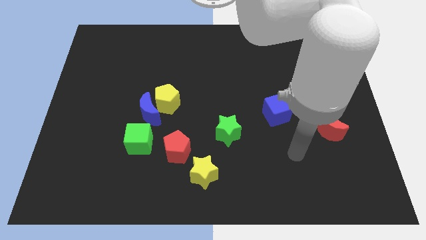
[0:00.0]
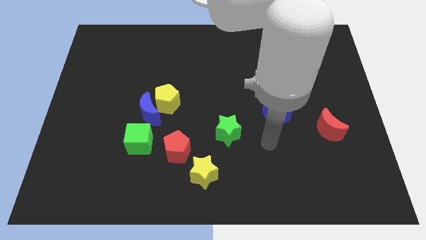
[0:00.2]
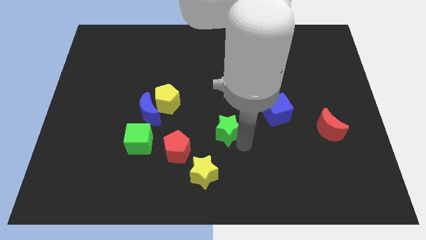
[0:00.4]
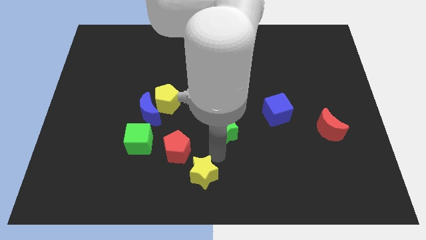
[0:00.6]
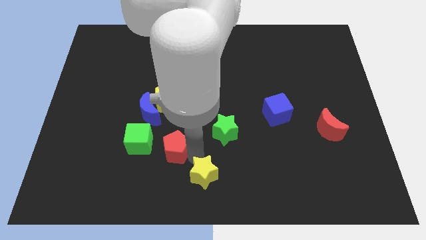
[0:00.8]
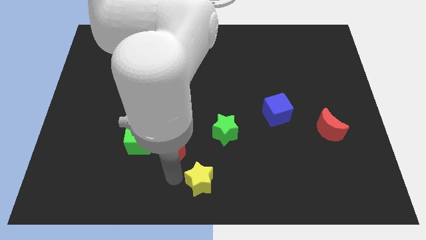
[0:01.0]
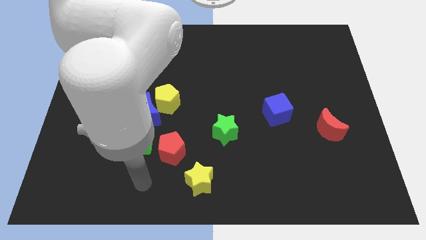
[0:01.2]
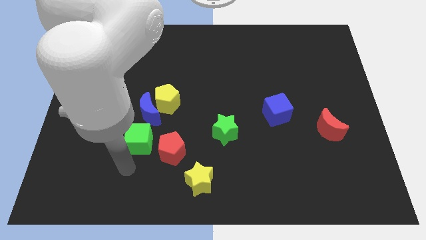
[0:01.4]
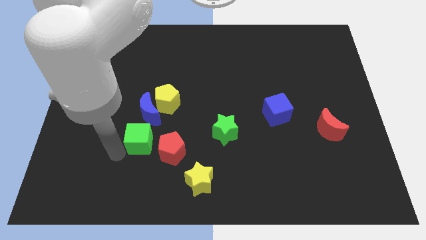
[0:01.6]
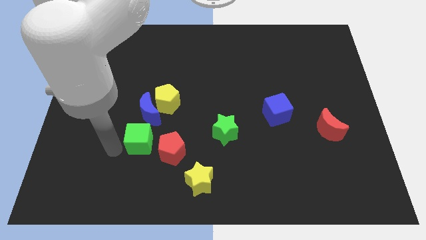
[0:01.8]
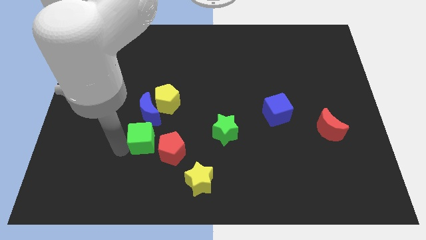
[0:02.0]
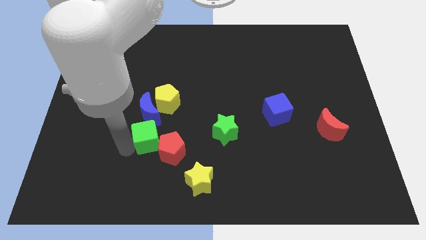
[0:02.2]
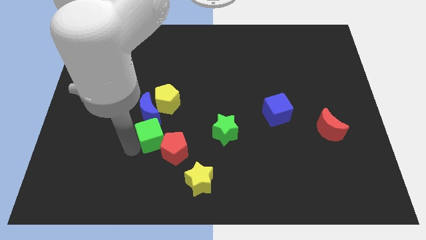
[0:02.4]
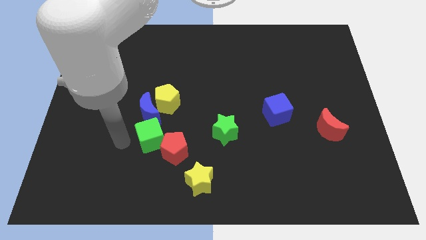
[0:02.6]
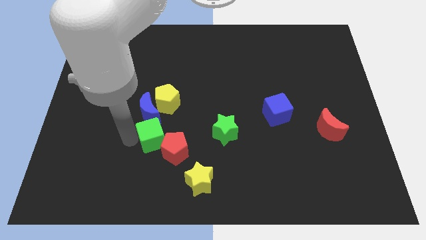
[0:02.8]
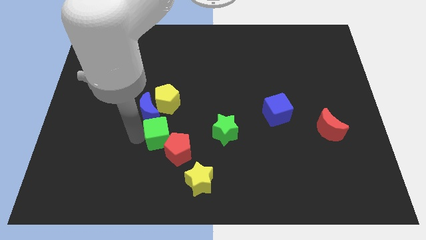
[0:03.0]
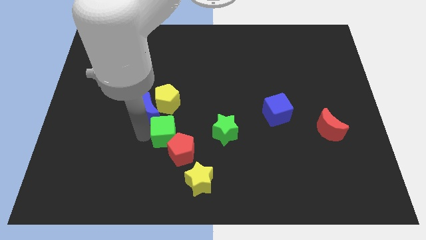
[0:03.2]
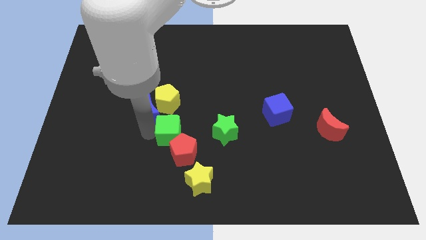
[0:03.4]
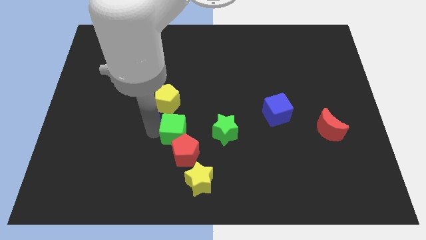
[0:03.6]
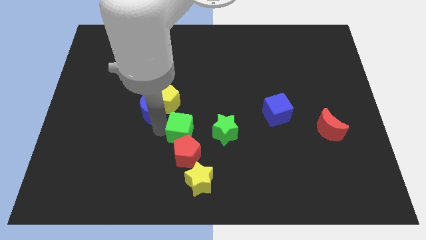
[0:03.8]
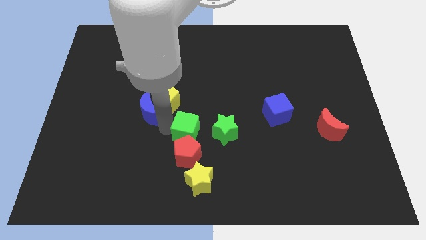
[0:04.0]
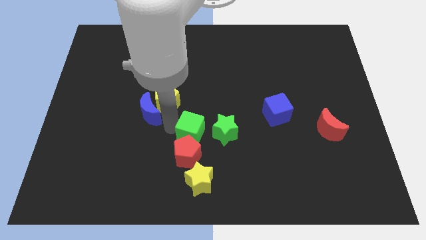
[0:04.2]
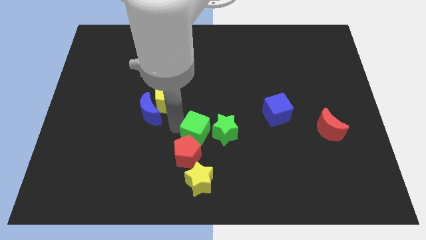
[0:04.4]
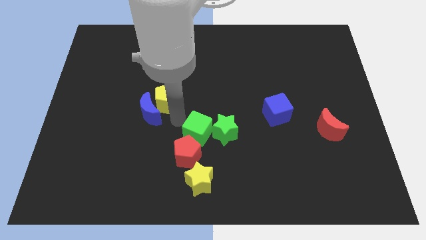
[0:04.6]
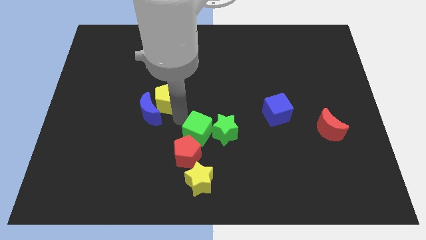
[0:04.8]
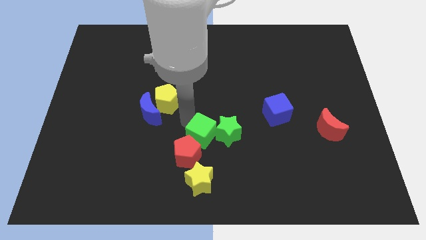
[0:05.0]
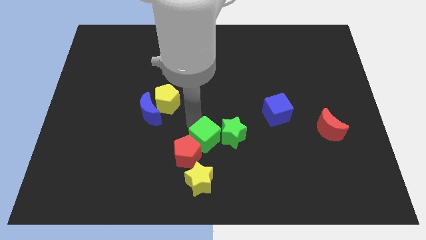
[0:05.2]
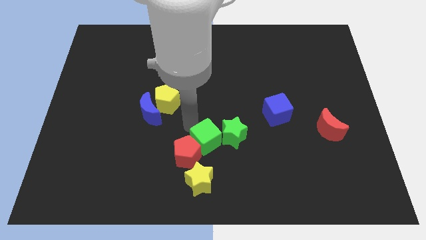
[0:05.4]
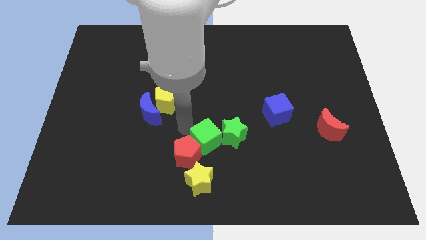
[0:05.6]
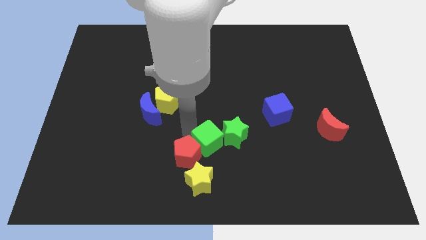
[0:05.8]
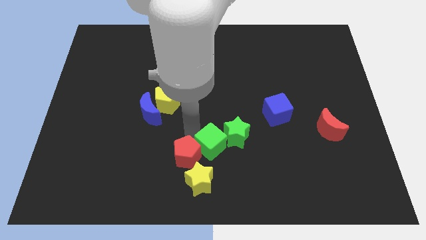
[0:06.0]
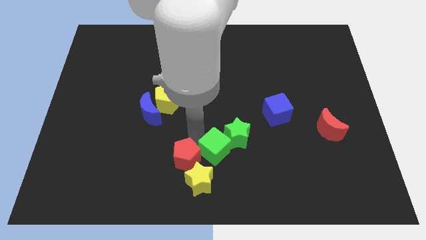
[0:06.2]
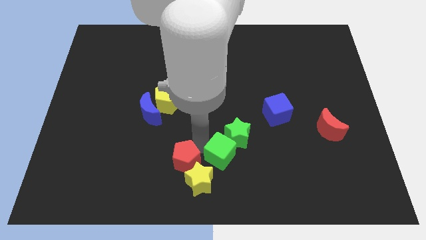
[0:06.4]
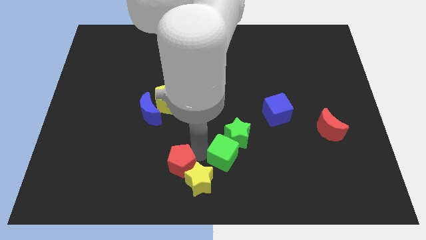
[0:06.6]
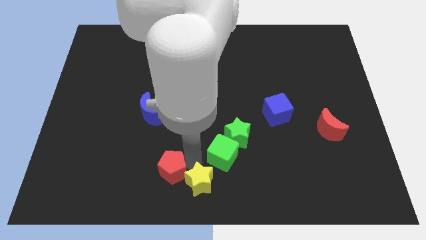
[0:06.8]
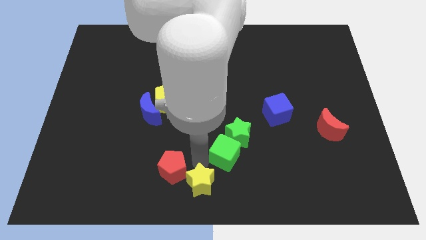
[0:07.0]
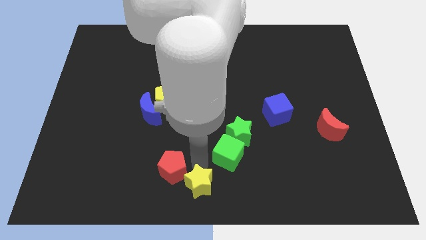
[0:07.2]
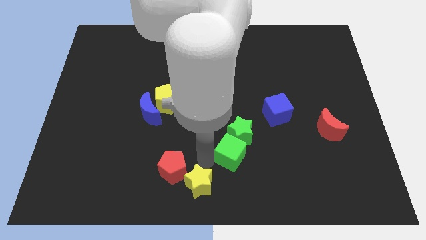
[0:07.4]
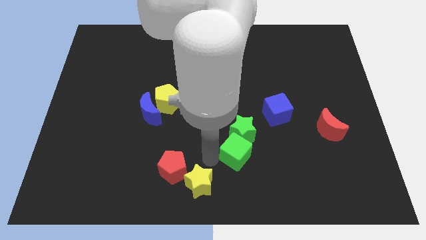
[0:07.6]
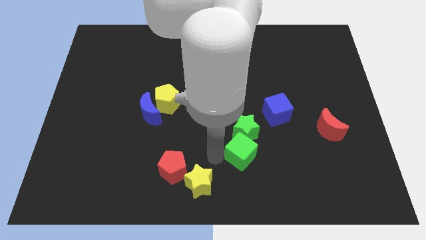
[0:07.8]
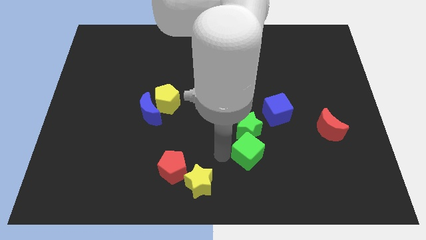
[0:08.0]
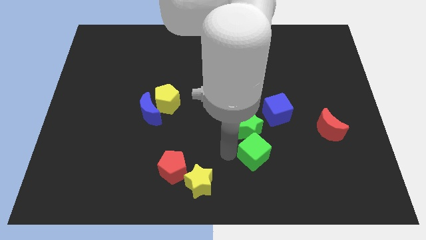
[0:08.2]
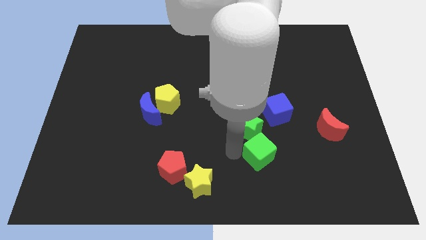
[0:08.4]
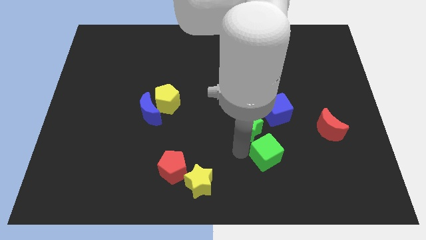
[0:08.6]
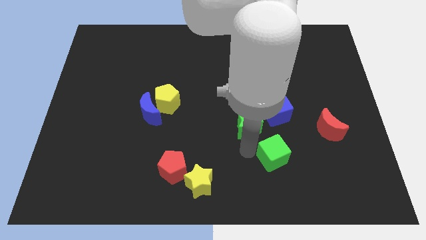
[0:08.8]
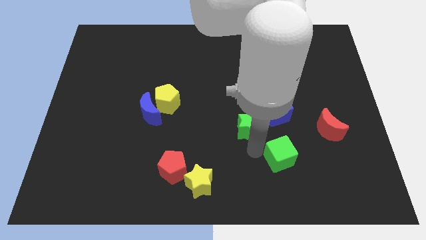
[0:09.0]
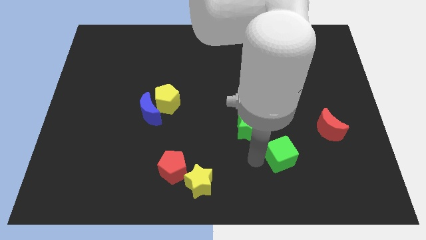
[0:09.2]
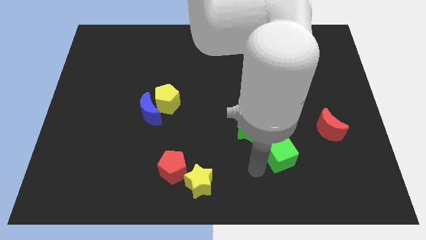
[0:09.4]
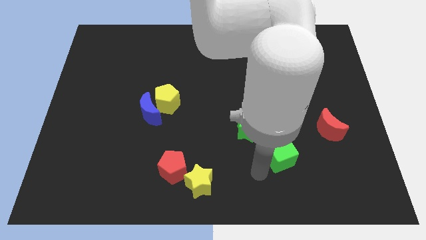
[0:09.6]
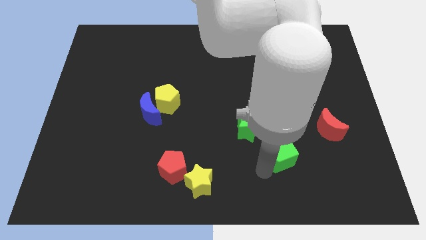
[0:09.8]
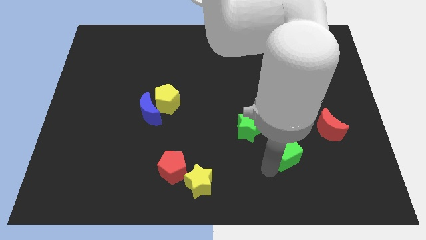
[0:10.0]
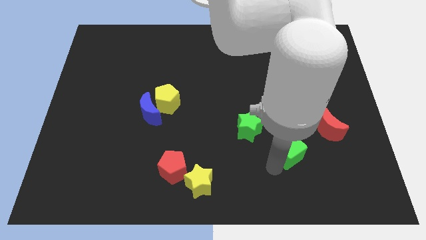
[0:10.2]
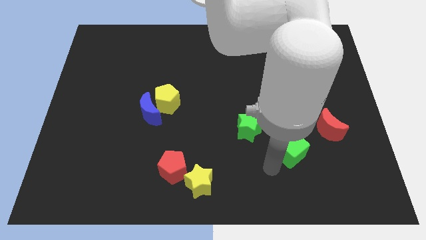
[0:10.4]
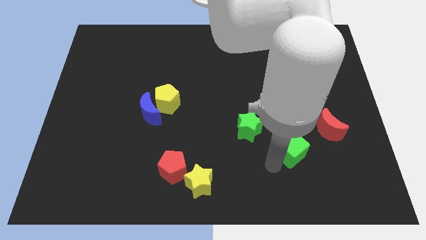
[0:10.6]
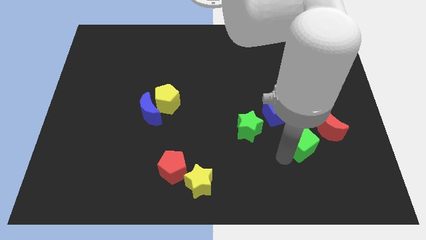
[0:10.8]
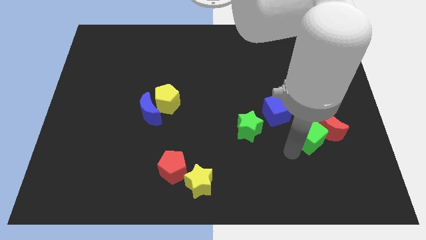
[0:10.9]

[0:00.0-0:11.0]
slide the green cube to the red moon

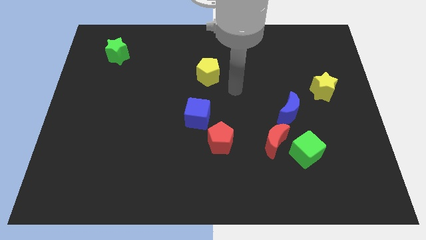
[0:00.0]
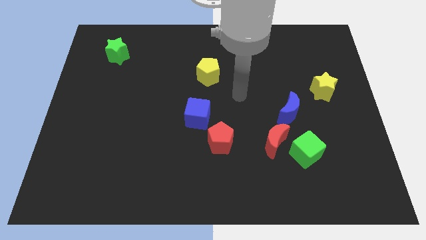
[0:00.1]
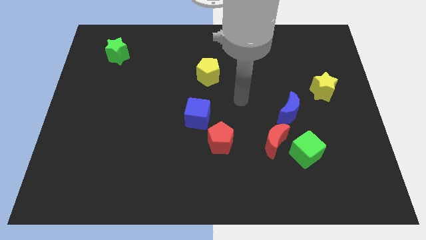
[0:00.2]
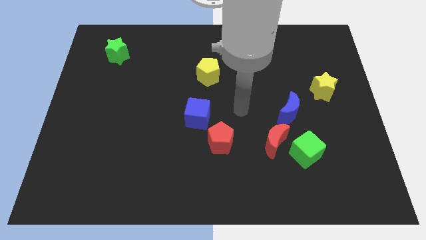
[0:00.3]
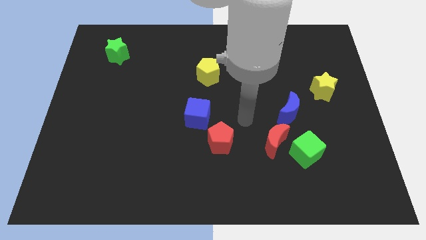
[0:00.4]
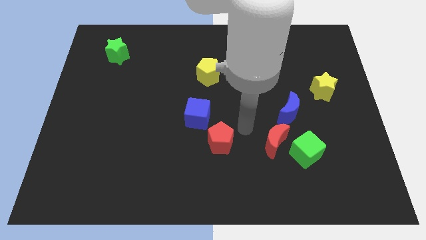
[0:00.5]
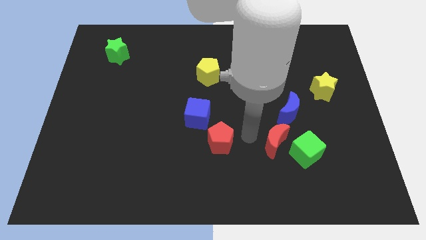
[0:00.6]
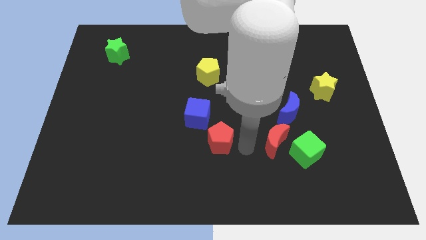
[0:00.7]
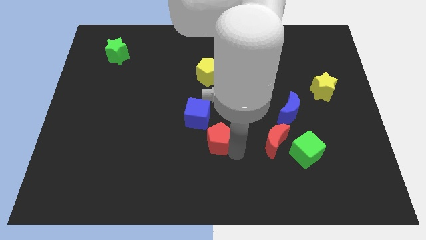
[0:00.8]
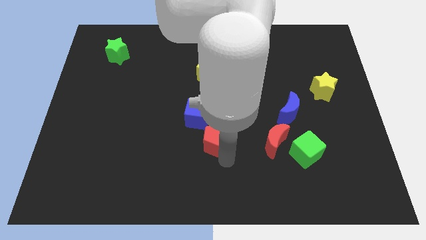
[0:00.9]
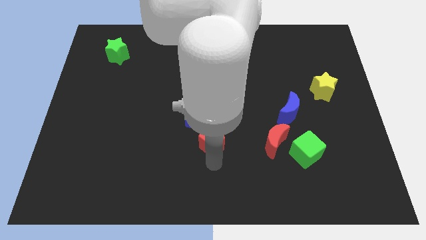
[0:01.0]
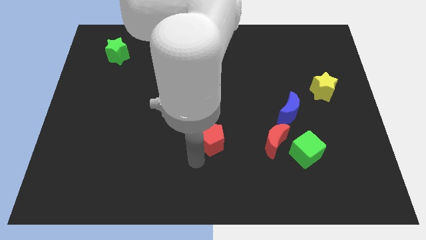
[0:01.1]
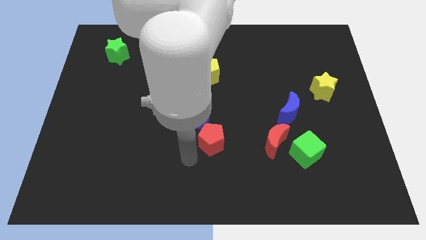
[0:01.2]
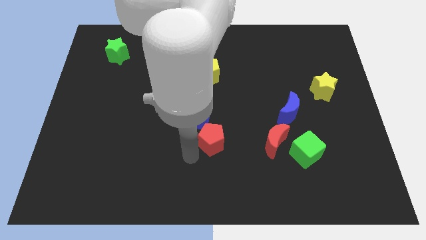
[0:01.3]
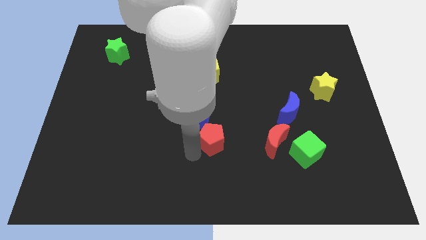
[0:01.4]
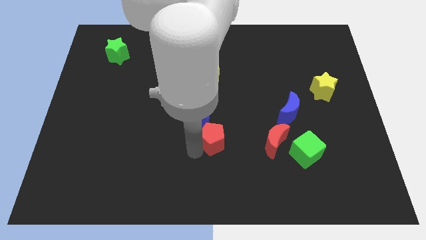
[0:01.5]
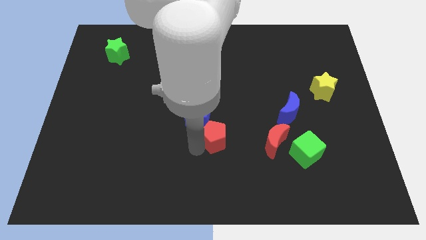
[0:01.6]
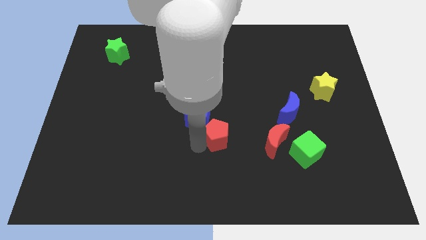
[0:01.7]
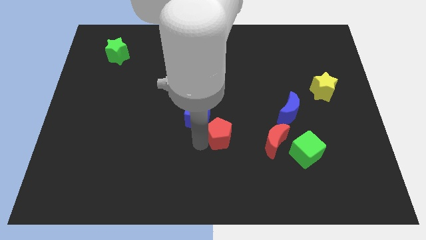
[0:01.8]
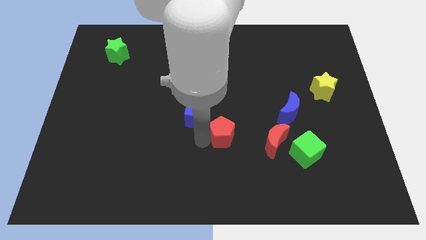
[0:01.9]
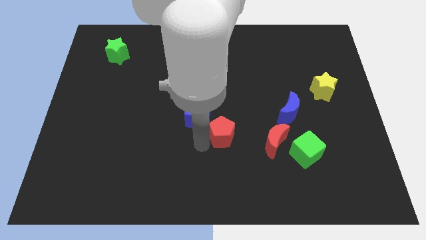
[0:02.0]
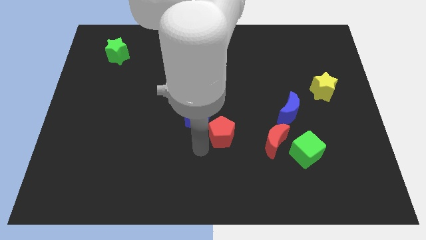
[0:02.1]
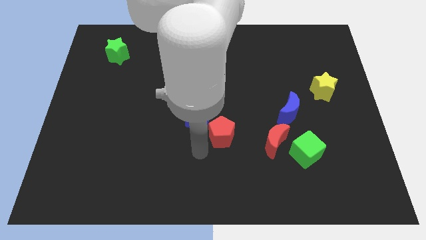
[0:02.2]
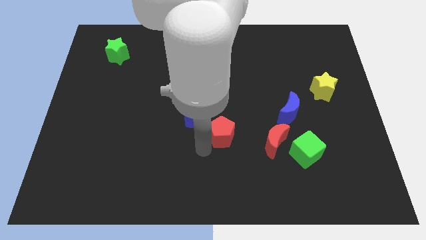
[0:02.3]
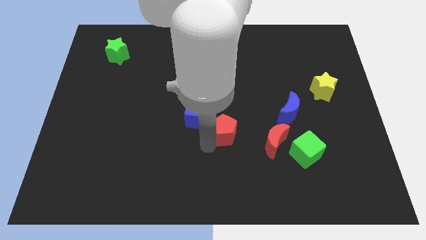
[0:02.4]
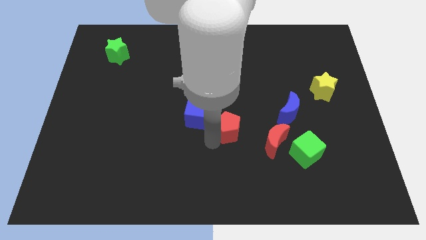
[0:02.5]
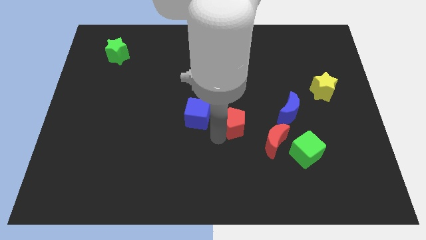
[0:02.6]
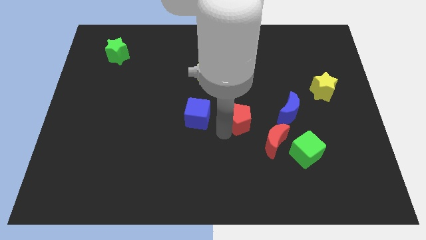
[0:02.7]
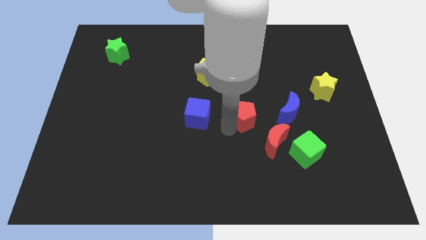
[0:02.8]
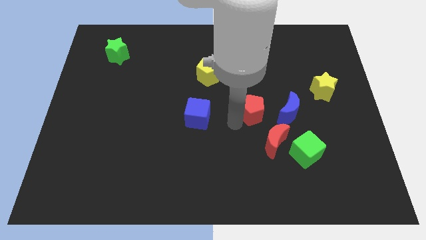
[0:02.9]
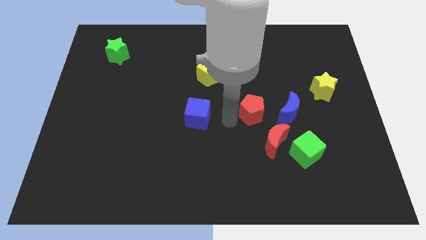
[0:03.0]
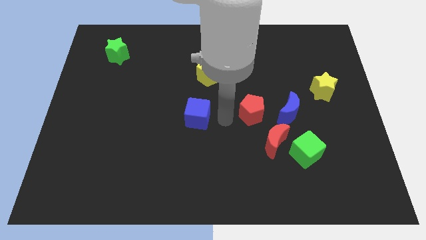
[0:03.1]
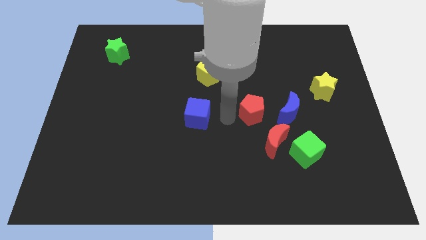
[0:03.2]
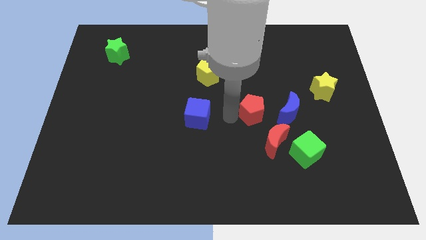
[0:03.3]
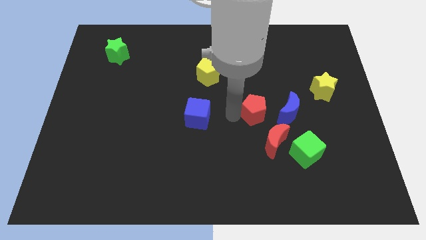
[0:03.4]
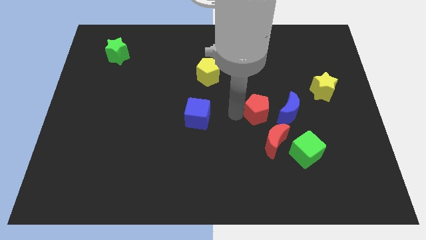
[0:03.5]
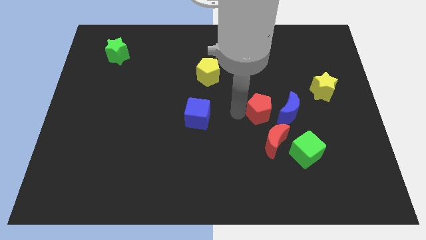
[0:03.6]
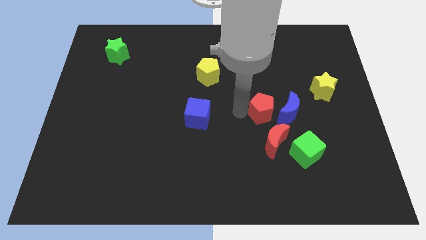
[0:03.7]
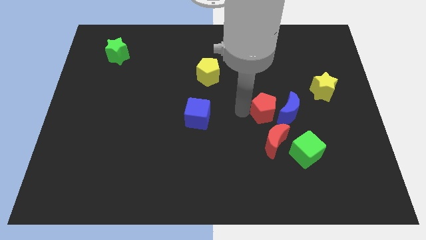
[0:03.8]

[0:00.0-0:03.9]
put the red pentagon next to the blue moon
